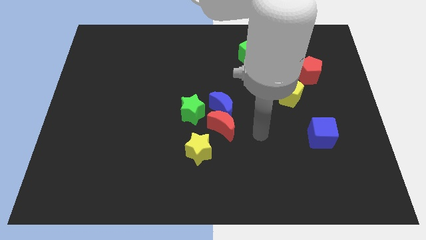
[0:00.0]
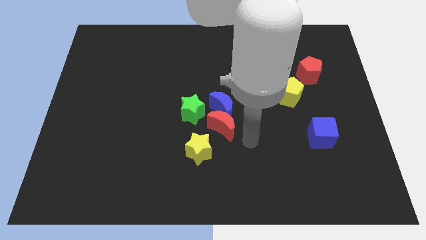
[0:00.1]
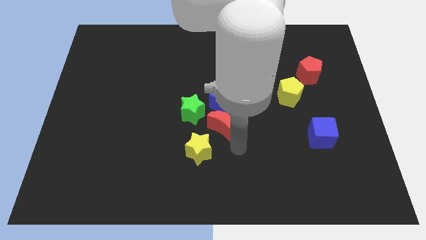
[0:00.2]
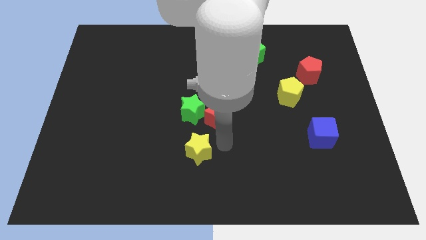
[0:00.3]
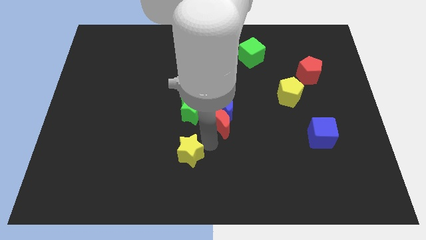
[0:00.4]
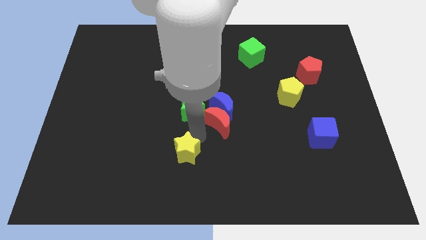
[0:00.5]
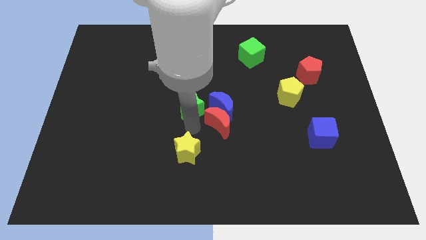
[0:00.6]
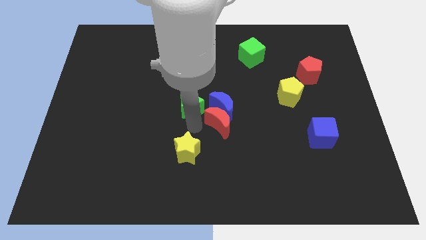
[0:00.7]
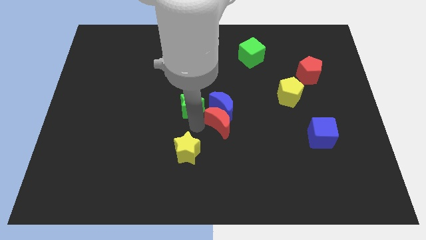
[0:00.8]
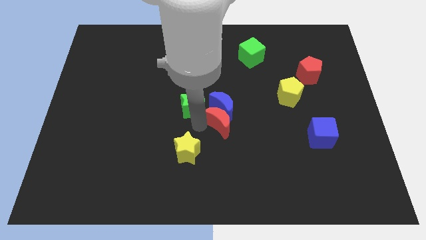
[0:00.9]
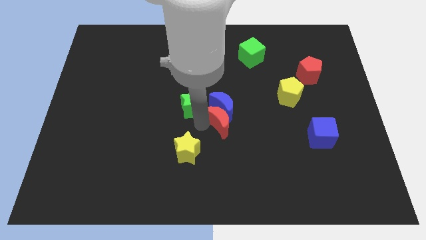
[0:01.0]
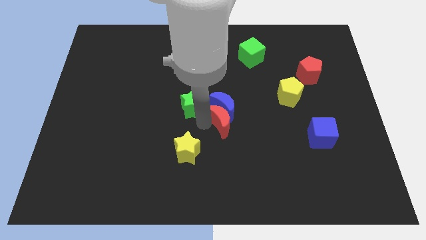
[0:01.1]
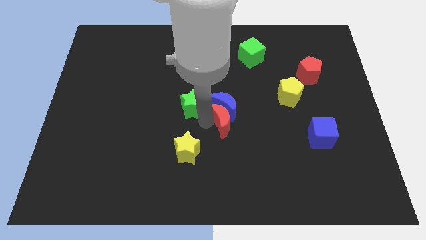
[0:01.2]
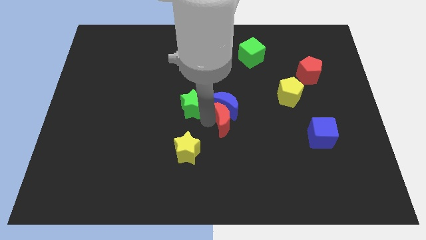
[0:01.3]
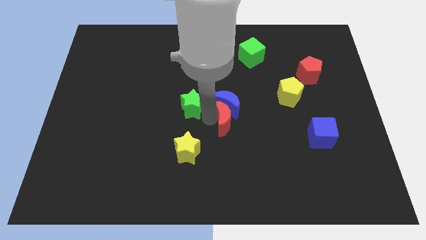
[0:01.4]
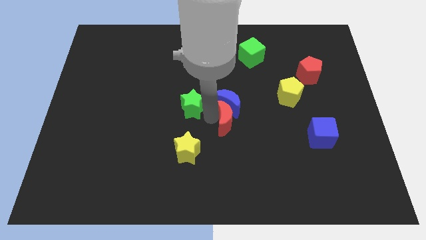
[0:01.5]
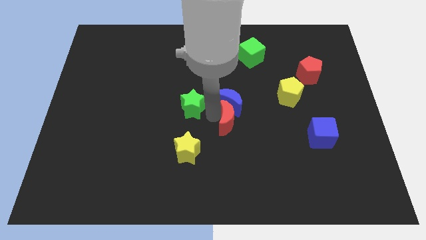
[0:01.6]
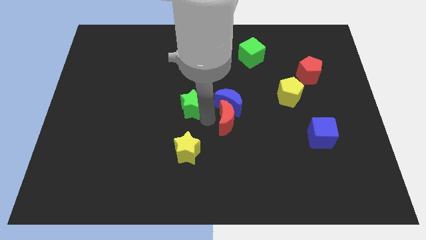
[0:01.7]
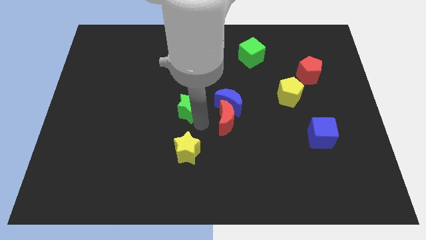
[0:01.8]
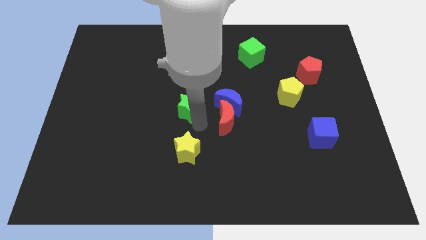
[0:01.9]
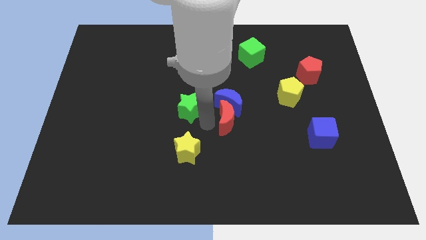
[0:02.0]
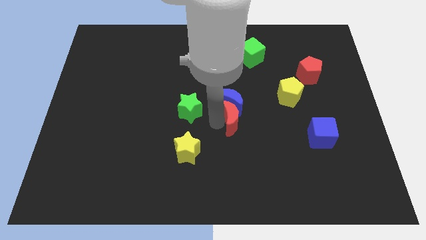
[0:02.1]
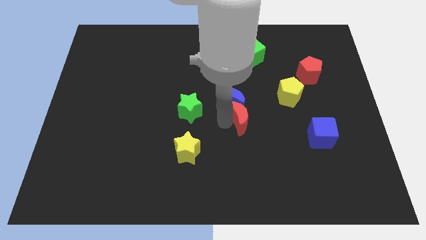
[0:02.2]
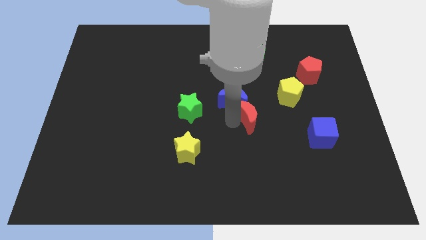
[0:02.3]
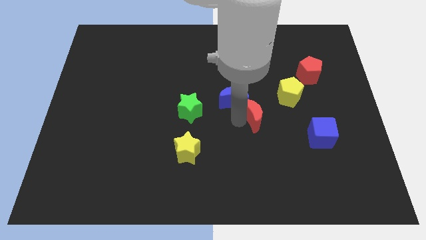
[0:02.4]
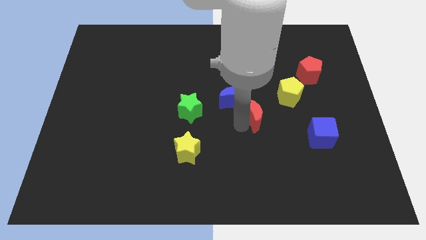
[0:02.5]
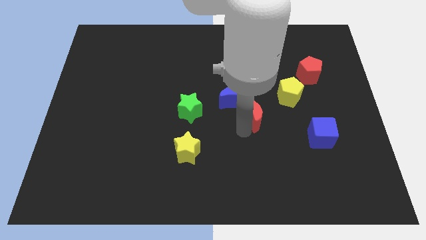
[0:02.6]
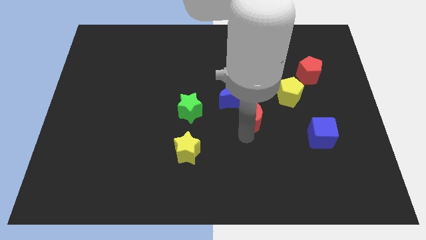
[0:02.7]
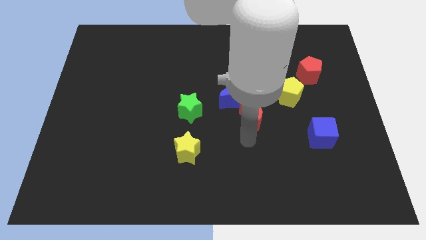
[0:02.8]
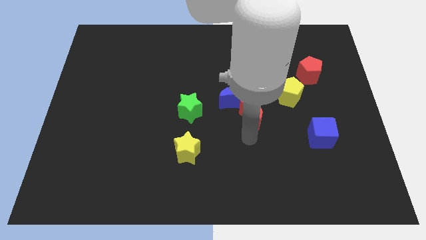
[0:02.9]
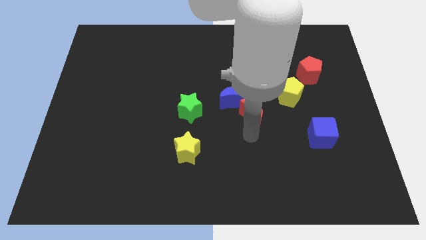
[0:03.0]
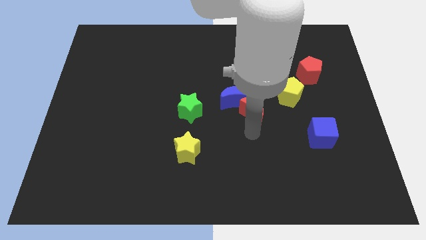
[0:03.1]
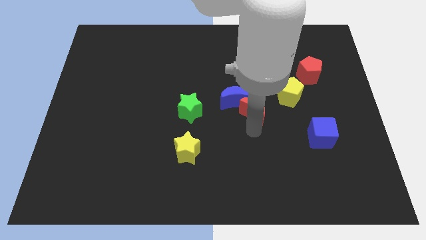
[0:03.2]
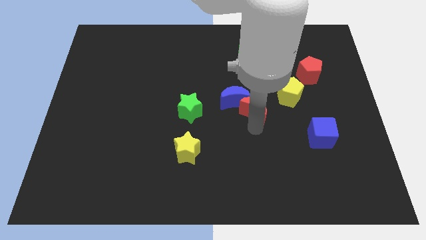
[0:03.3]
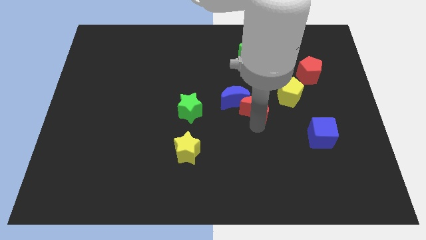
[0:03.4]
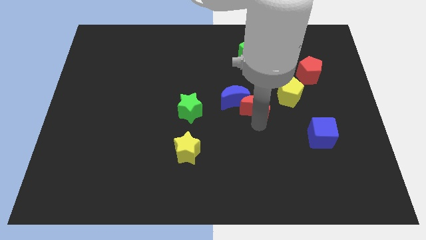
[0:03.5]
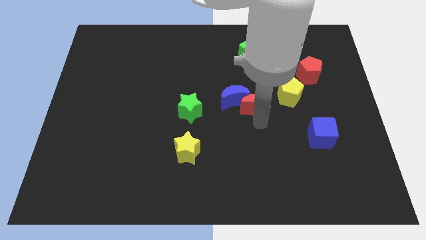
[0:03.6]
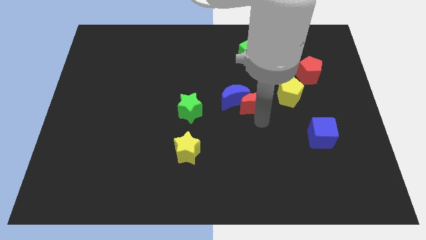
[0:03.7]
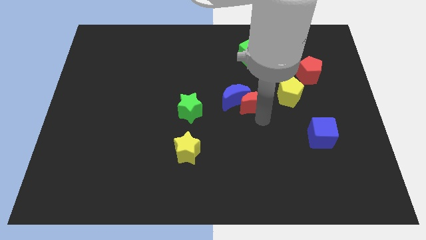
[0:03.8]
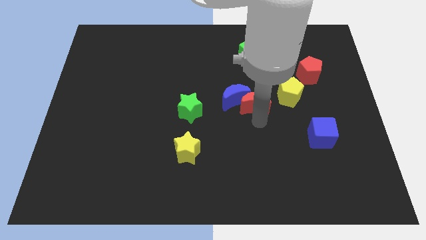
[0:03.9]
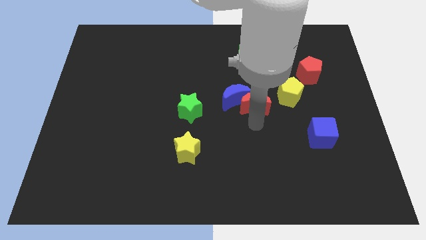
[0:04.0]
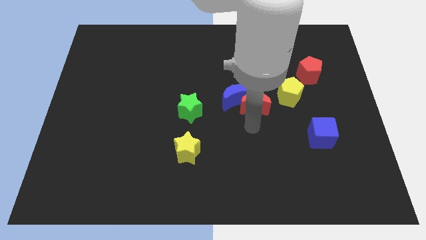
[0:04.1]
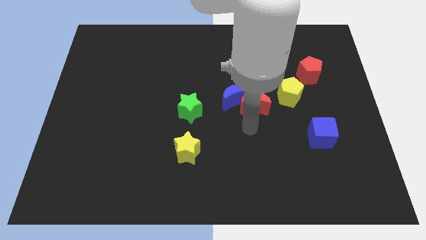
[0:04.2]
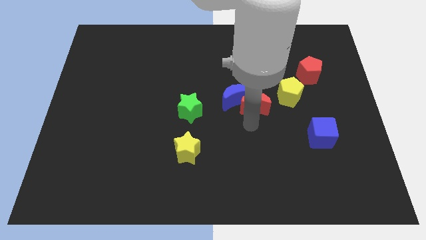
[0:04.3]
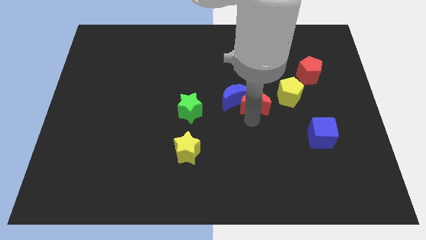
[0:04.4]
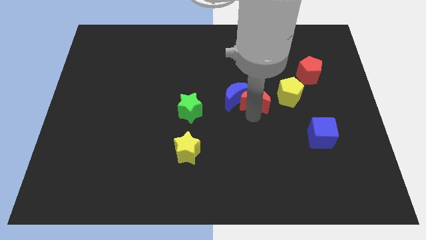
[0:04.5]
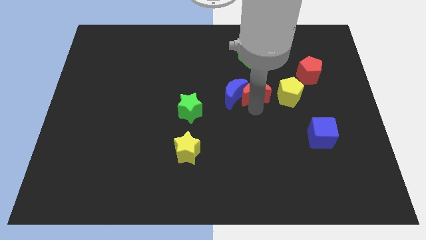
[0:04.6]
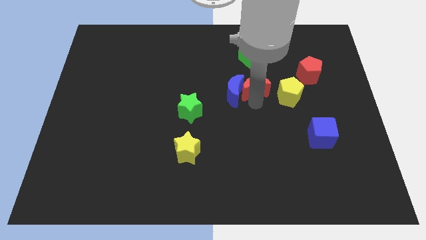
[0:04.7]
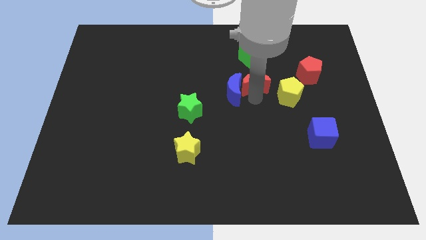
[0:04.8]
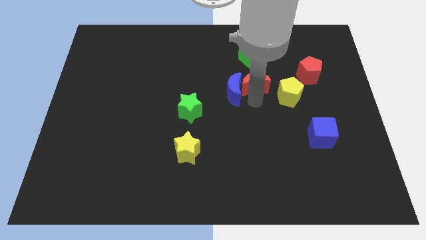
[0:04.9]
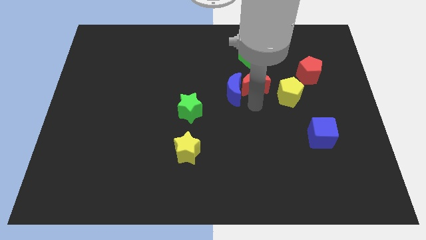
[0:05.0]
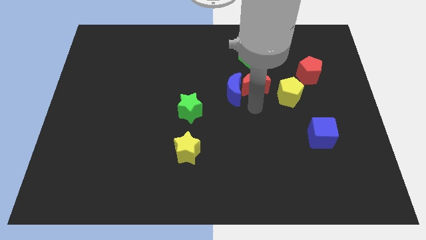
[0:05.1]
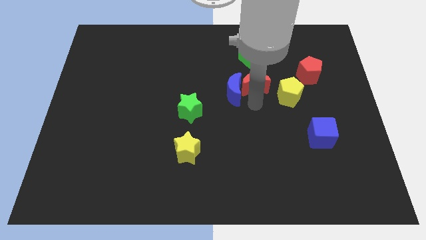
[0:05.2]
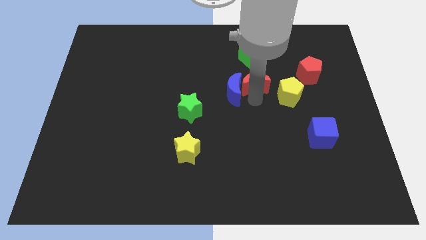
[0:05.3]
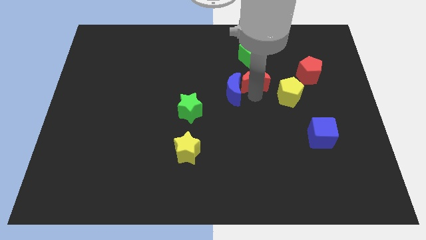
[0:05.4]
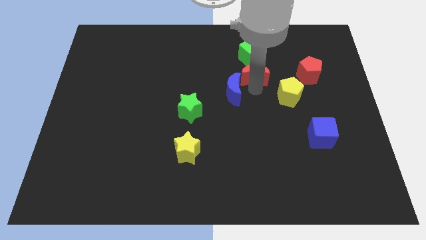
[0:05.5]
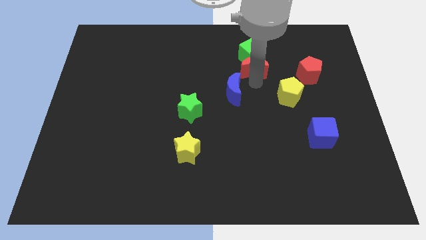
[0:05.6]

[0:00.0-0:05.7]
move the red moon next to the green cube

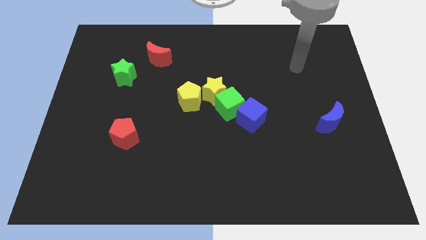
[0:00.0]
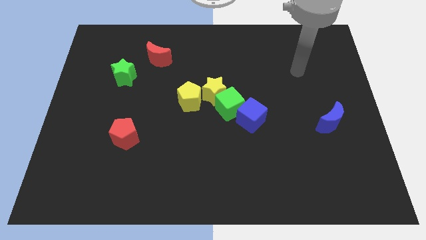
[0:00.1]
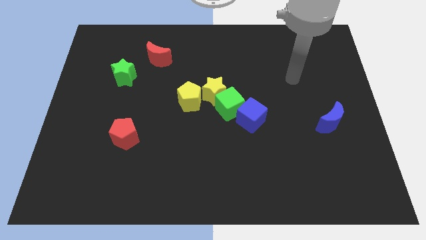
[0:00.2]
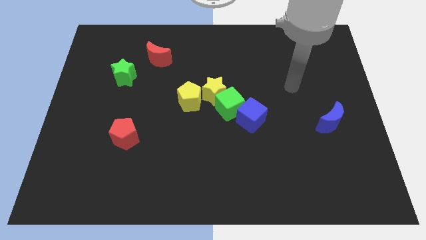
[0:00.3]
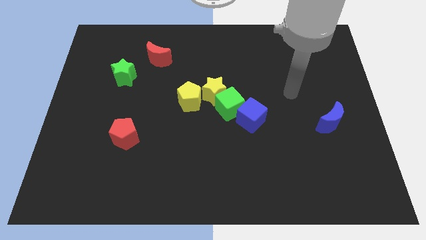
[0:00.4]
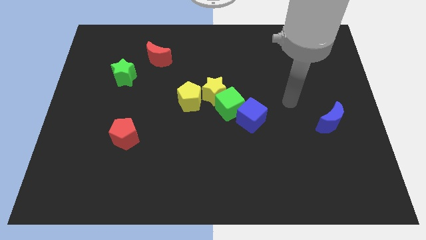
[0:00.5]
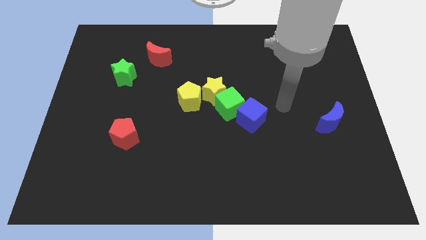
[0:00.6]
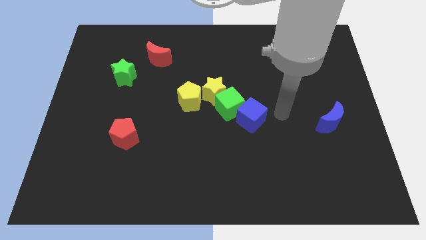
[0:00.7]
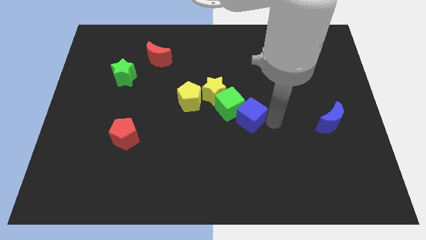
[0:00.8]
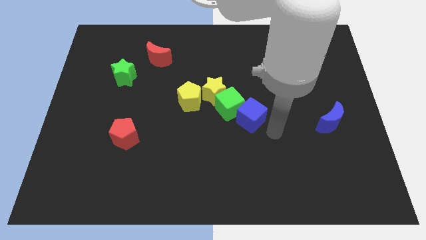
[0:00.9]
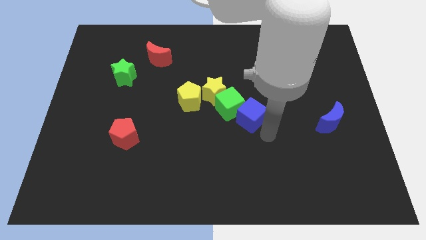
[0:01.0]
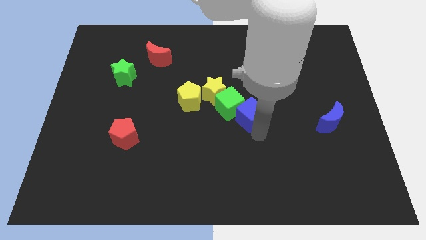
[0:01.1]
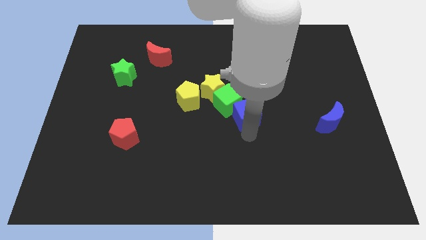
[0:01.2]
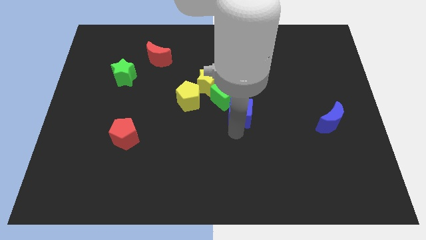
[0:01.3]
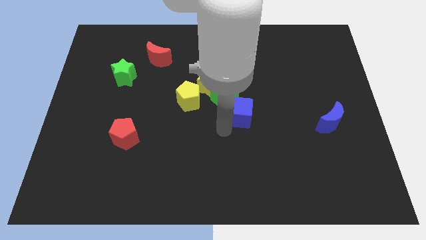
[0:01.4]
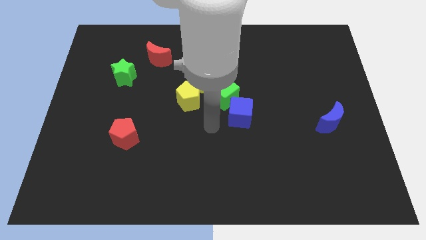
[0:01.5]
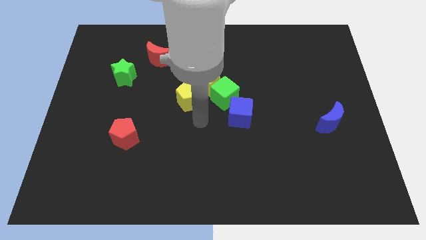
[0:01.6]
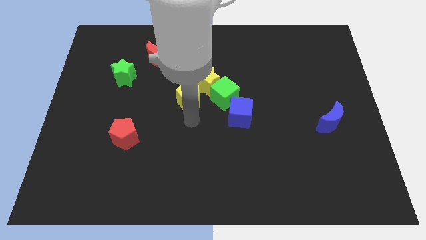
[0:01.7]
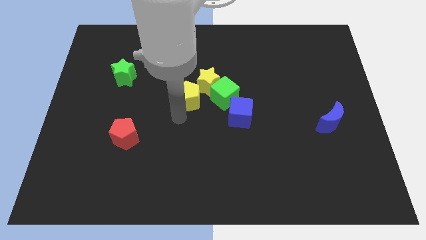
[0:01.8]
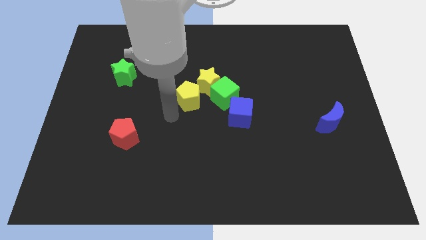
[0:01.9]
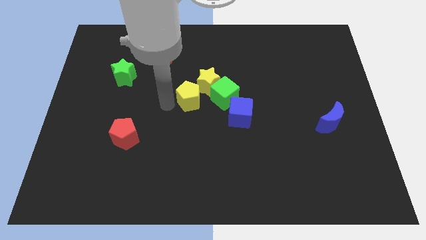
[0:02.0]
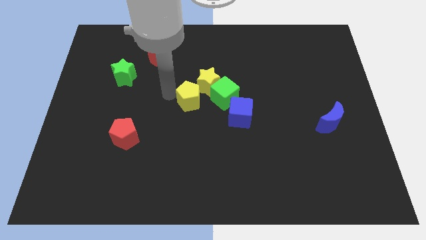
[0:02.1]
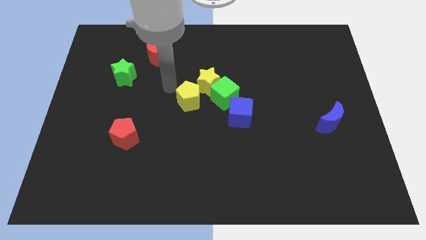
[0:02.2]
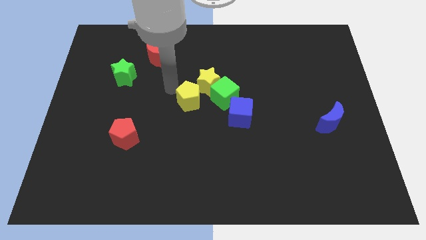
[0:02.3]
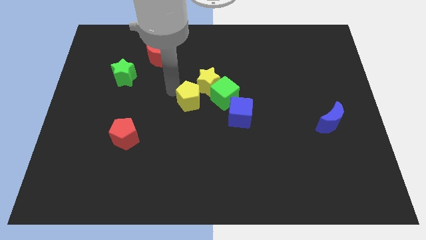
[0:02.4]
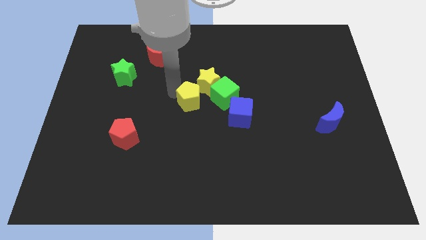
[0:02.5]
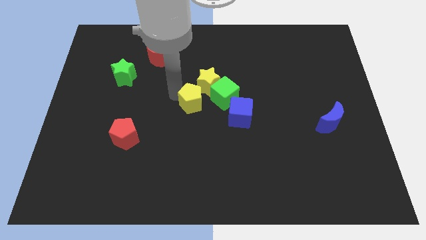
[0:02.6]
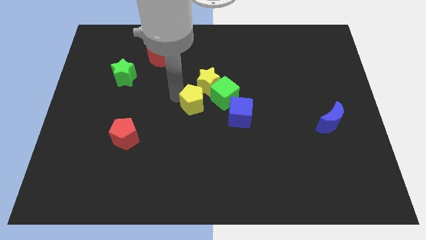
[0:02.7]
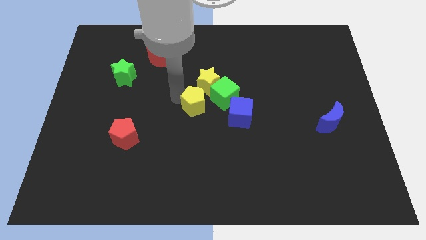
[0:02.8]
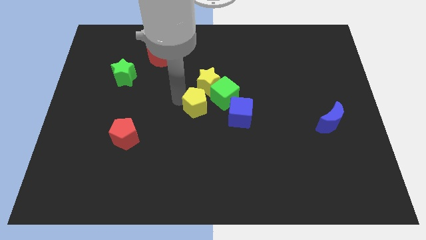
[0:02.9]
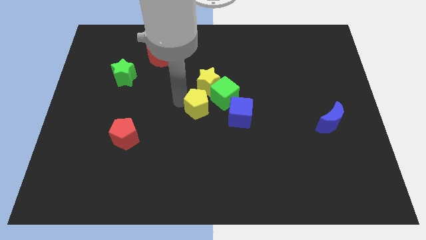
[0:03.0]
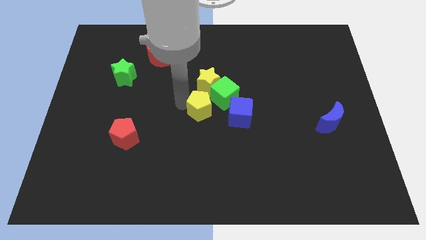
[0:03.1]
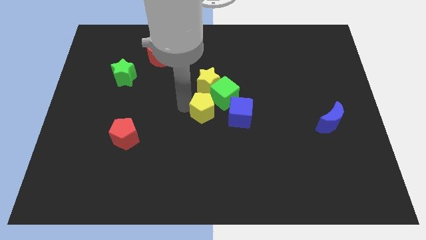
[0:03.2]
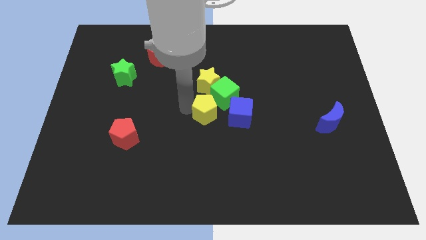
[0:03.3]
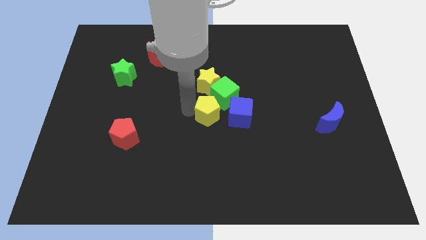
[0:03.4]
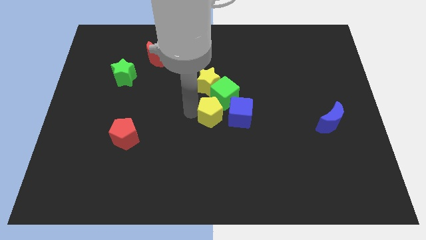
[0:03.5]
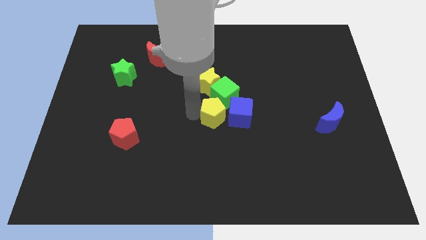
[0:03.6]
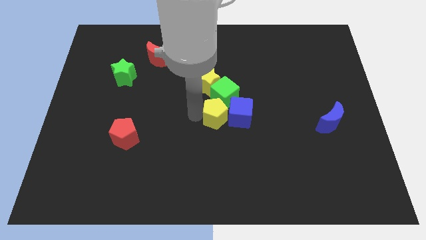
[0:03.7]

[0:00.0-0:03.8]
put the yellow pentagon next to the blue cube
